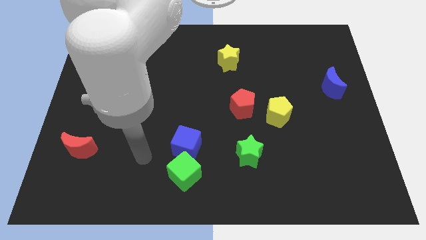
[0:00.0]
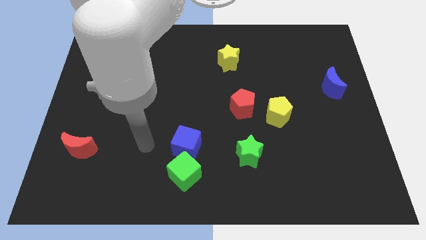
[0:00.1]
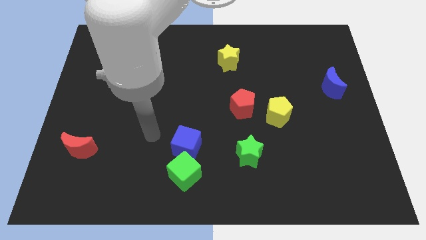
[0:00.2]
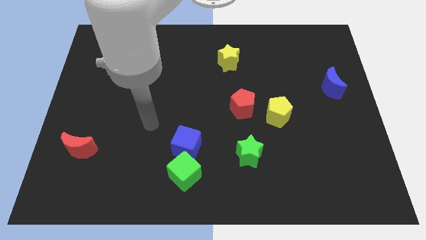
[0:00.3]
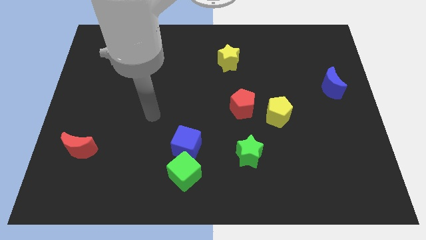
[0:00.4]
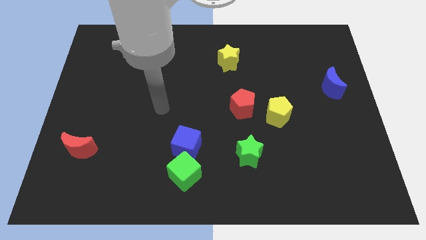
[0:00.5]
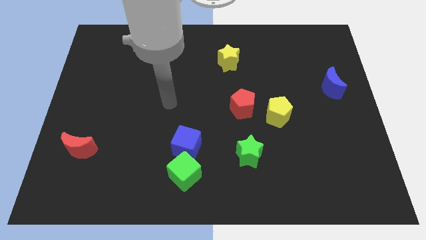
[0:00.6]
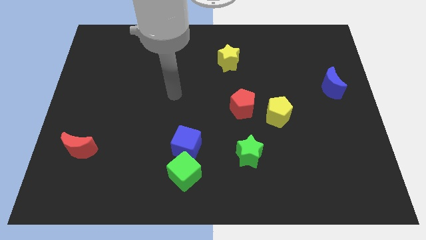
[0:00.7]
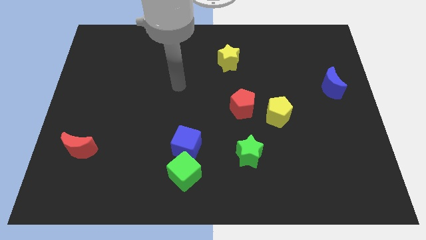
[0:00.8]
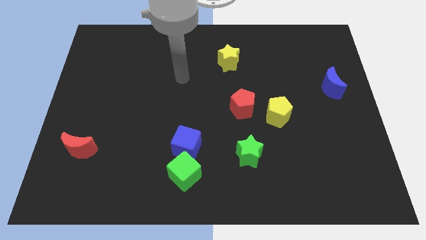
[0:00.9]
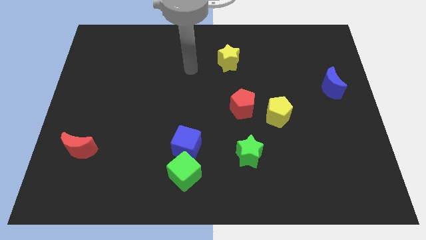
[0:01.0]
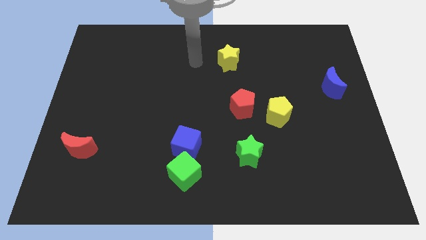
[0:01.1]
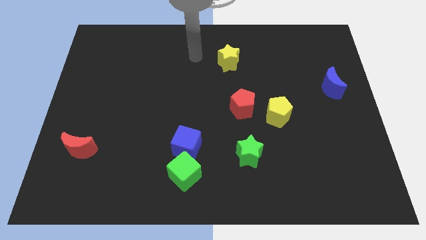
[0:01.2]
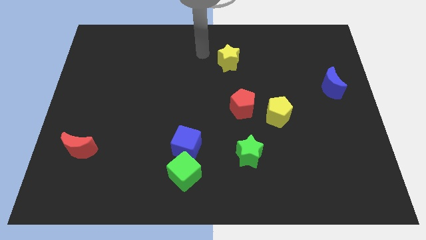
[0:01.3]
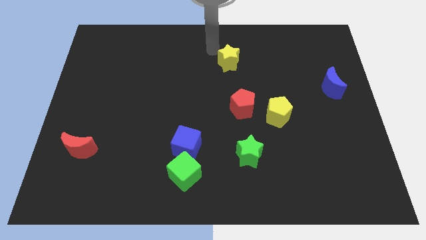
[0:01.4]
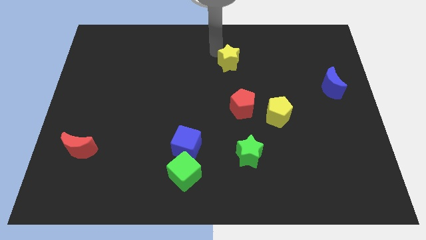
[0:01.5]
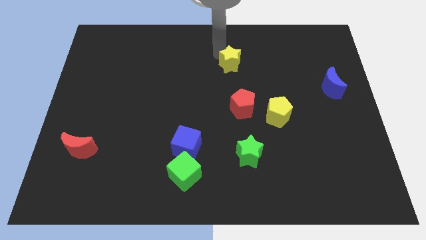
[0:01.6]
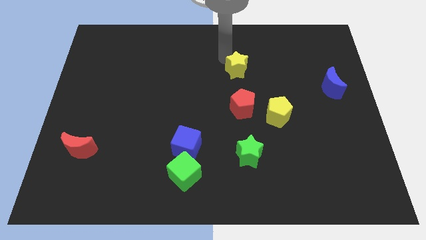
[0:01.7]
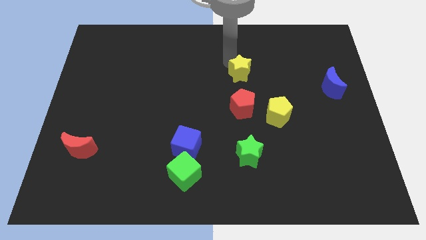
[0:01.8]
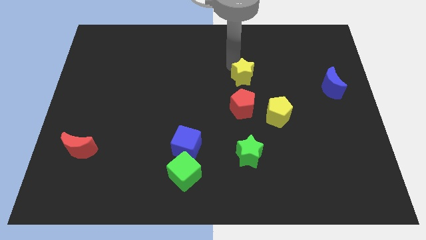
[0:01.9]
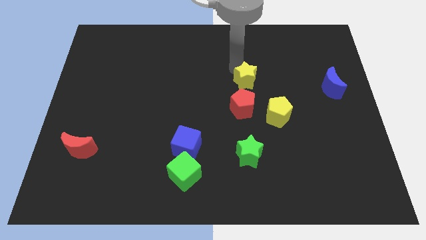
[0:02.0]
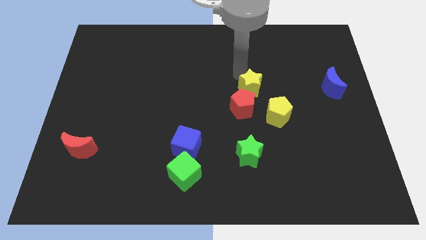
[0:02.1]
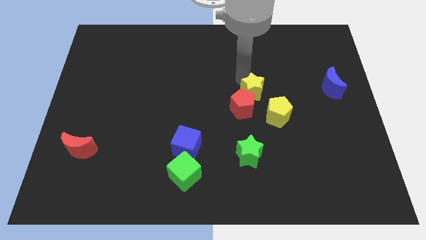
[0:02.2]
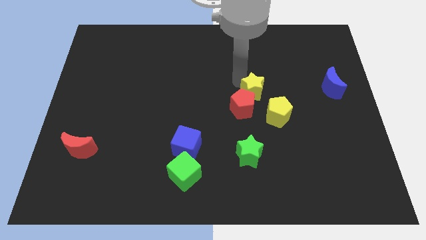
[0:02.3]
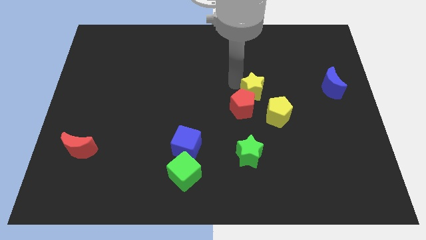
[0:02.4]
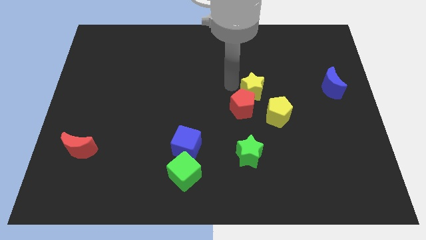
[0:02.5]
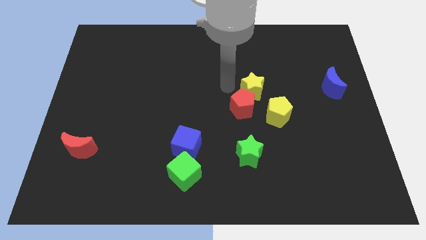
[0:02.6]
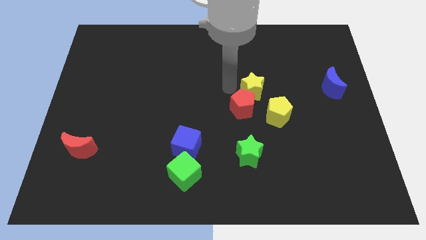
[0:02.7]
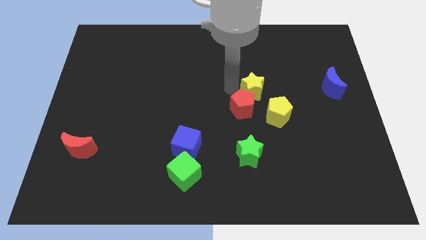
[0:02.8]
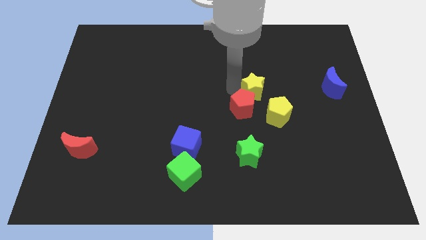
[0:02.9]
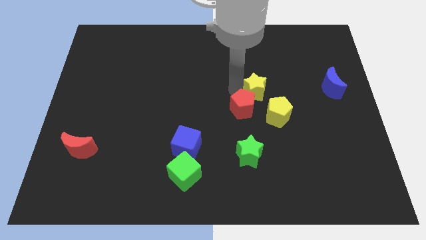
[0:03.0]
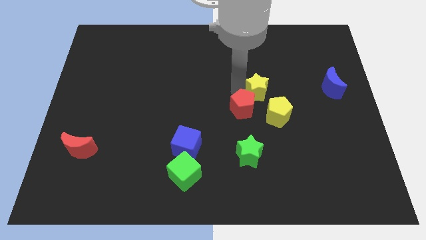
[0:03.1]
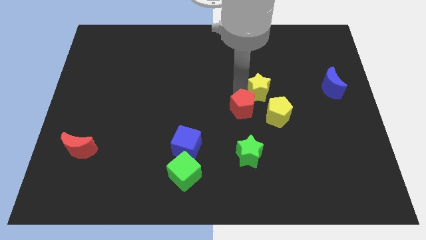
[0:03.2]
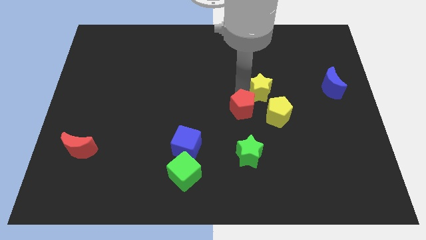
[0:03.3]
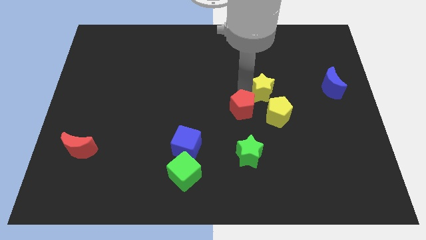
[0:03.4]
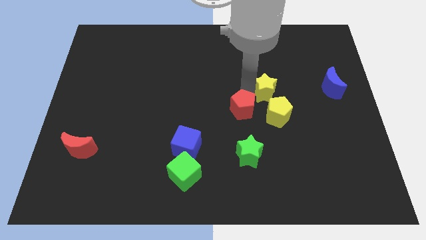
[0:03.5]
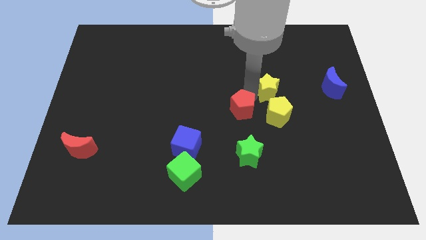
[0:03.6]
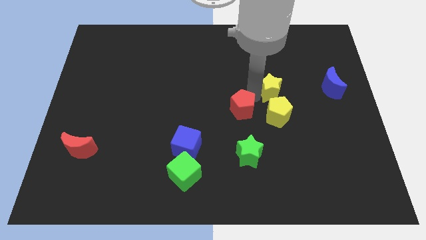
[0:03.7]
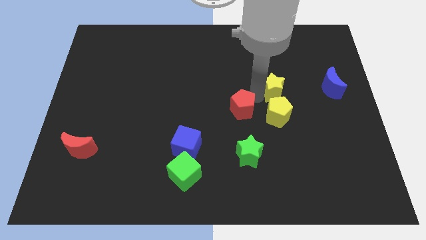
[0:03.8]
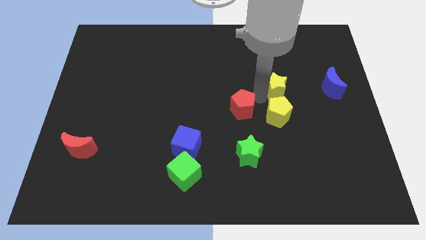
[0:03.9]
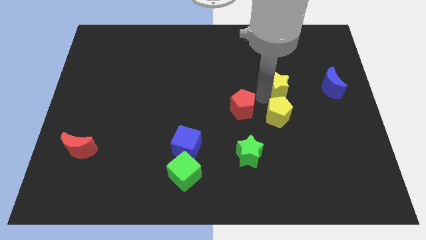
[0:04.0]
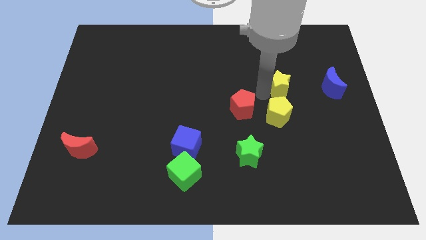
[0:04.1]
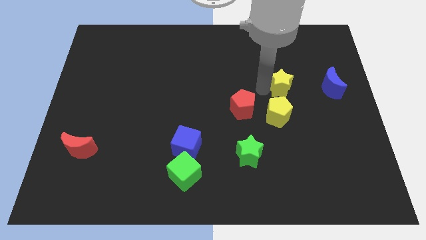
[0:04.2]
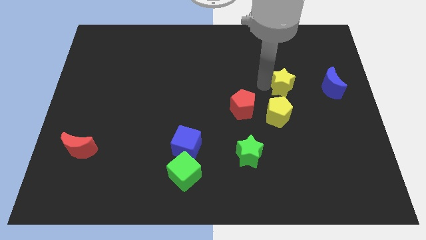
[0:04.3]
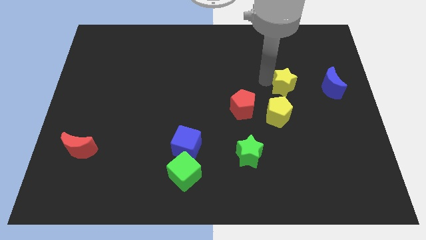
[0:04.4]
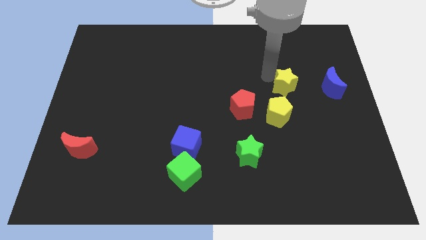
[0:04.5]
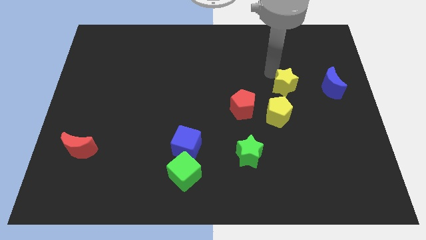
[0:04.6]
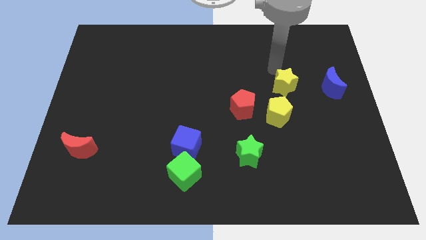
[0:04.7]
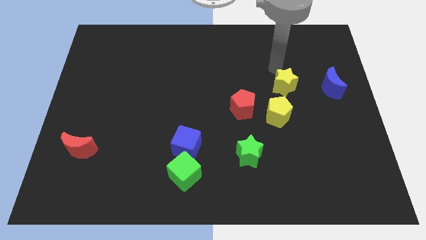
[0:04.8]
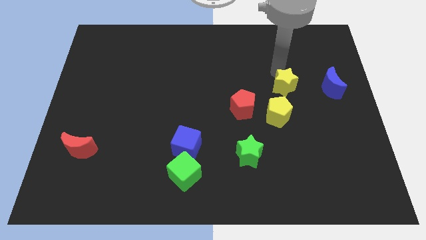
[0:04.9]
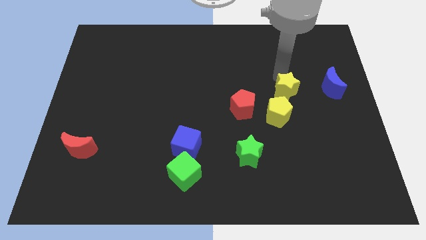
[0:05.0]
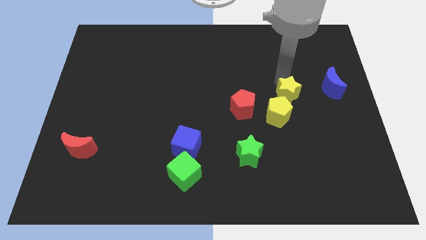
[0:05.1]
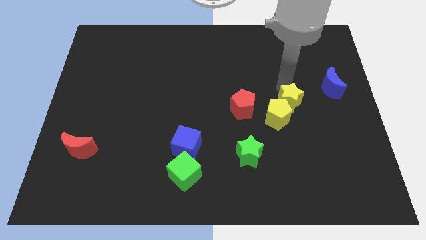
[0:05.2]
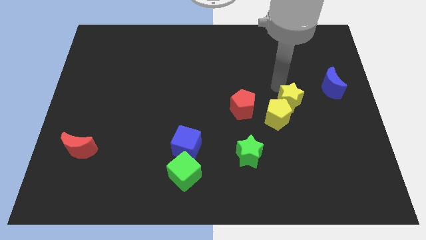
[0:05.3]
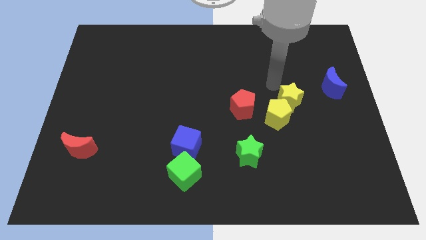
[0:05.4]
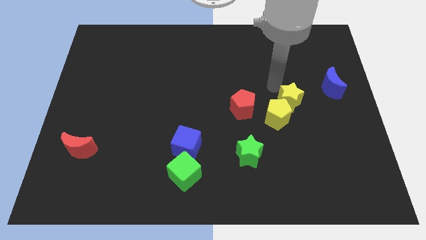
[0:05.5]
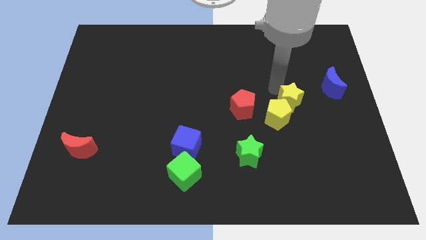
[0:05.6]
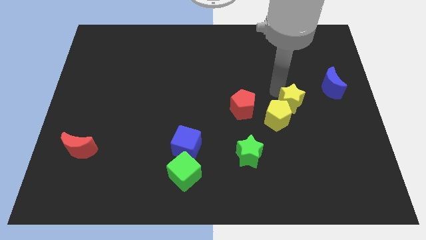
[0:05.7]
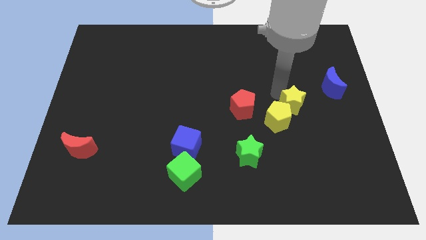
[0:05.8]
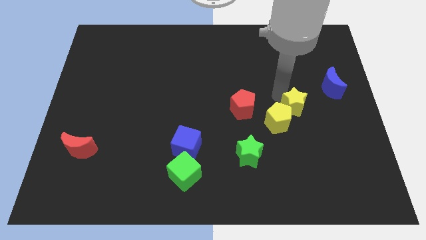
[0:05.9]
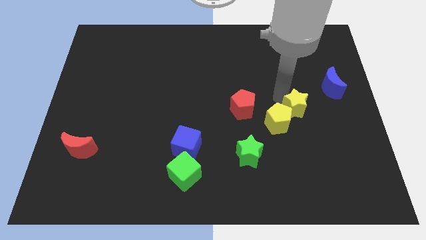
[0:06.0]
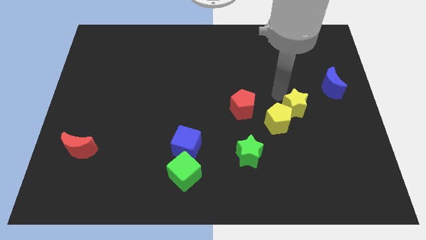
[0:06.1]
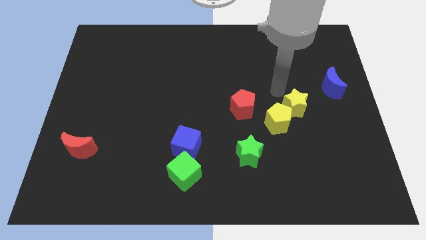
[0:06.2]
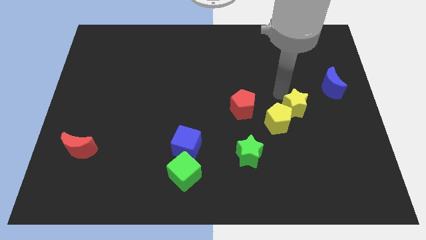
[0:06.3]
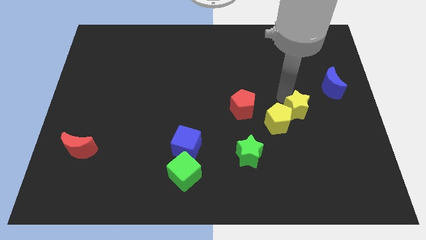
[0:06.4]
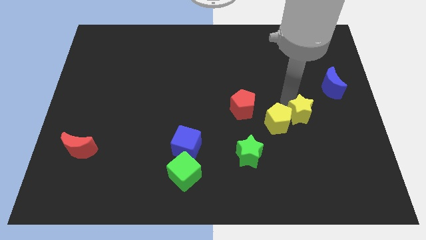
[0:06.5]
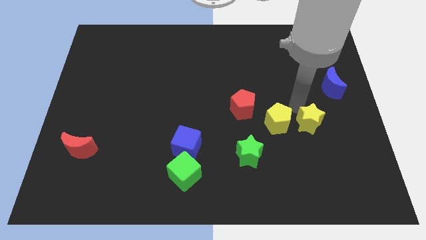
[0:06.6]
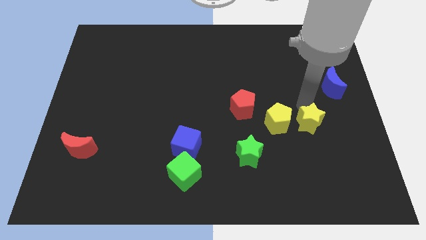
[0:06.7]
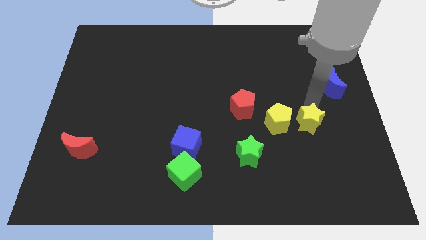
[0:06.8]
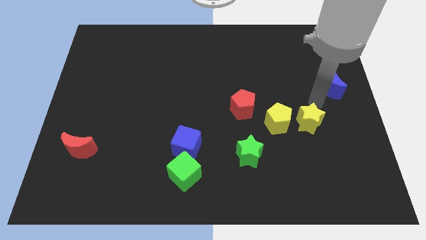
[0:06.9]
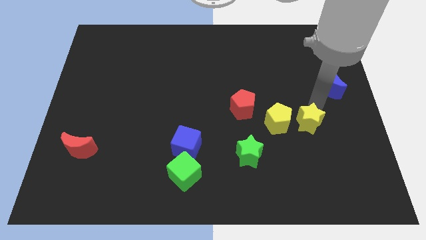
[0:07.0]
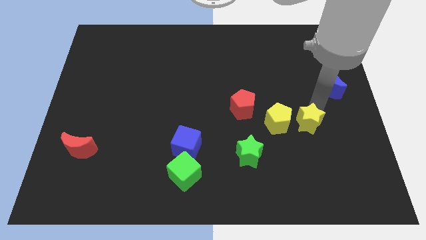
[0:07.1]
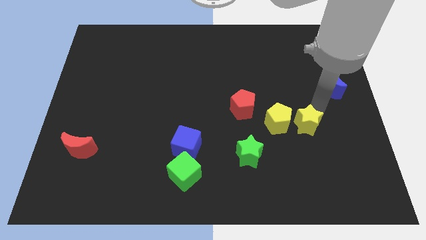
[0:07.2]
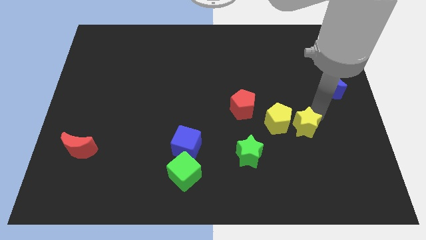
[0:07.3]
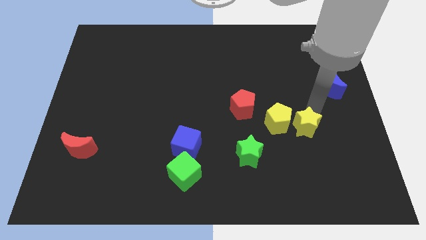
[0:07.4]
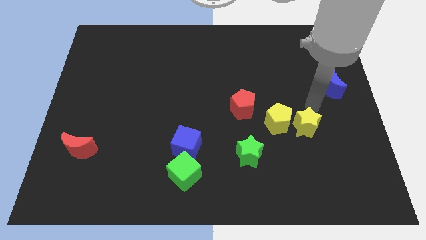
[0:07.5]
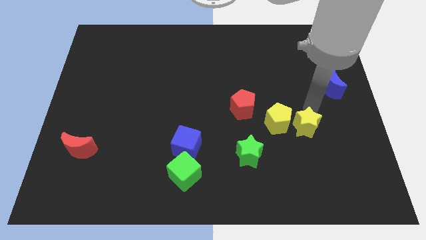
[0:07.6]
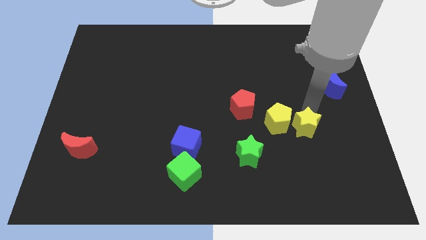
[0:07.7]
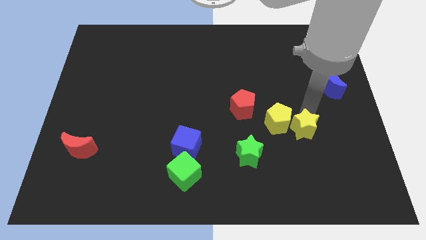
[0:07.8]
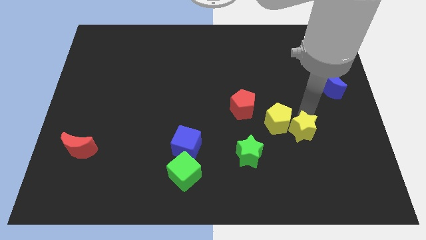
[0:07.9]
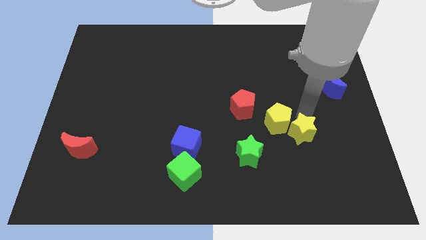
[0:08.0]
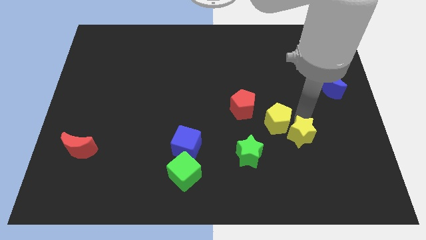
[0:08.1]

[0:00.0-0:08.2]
put the yellow star just right of the green star
